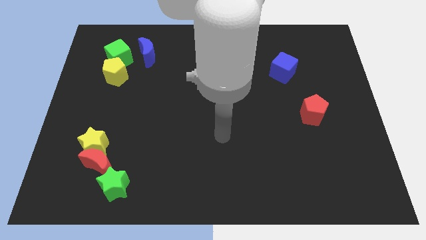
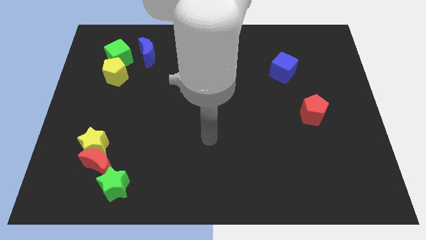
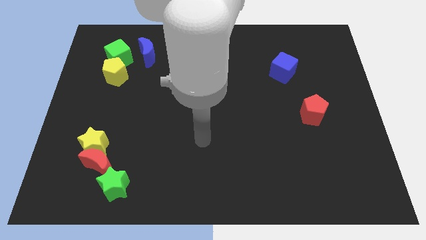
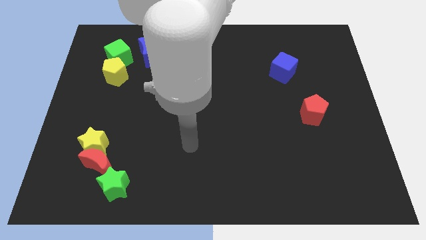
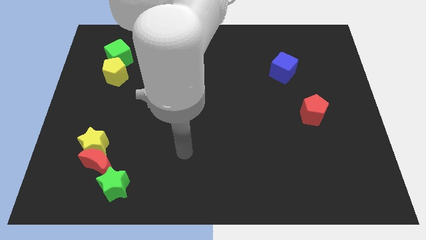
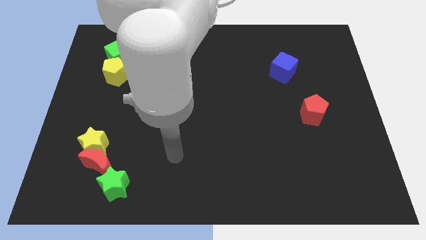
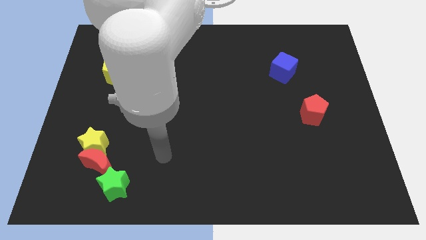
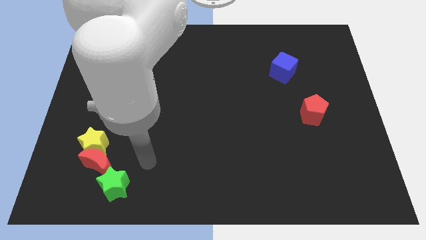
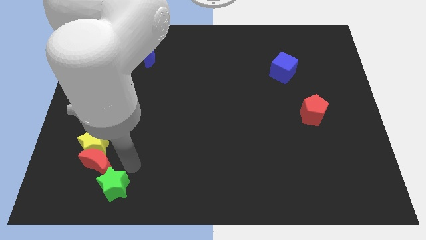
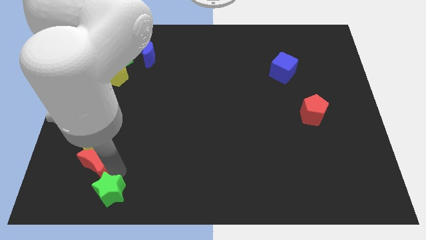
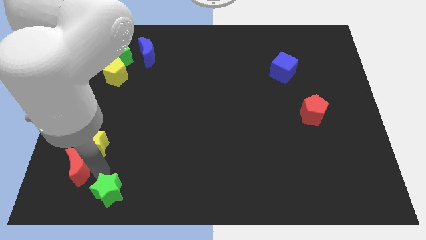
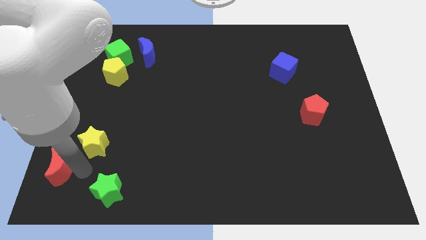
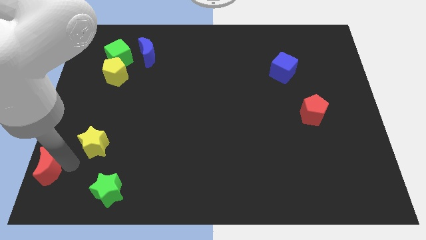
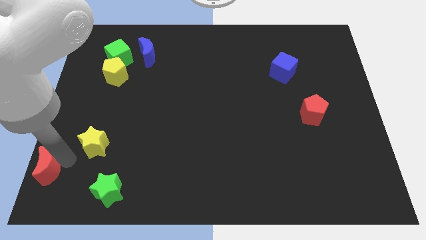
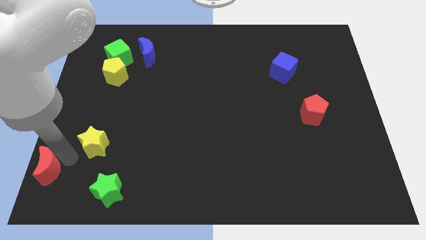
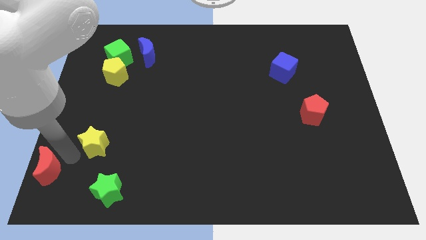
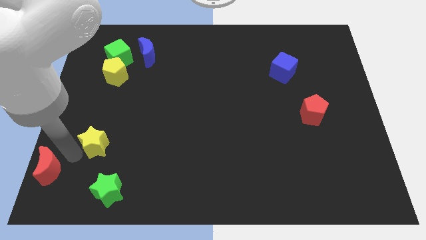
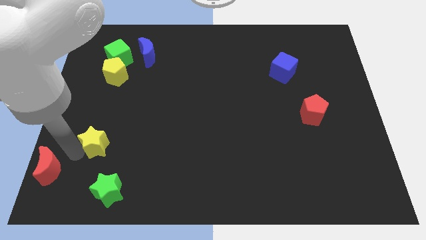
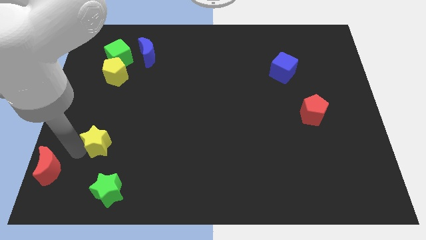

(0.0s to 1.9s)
separate the yellow star from the red moon

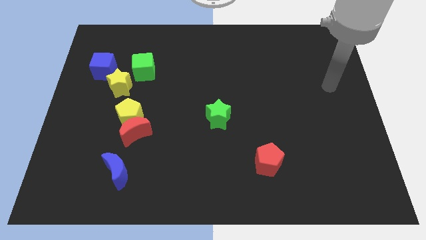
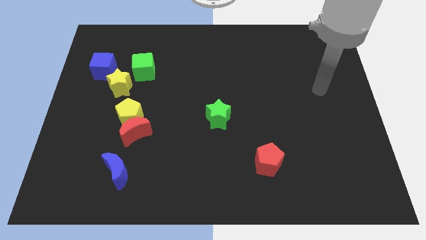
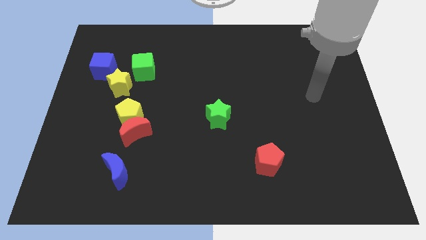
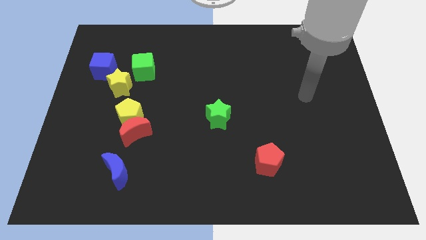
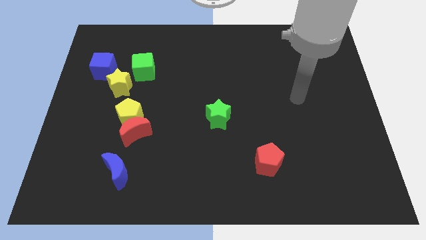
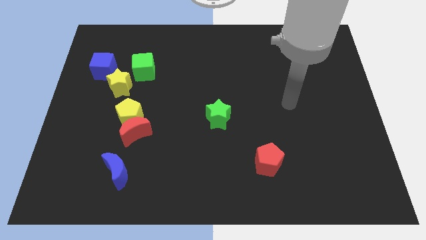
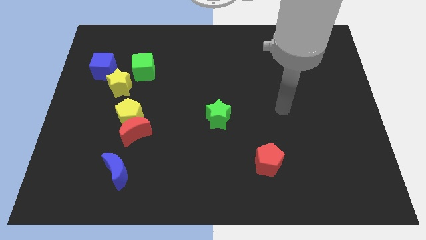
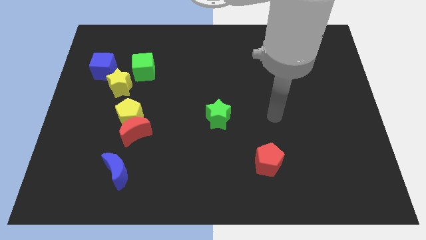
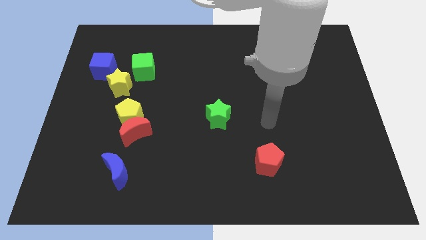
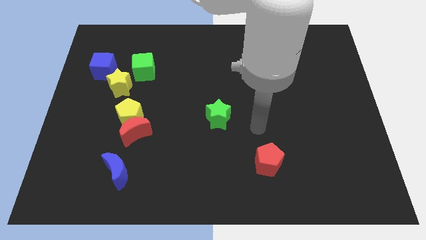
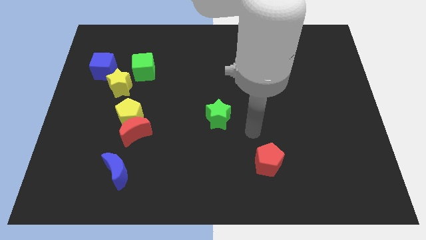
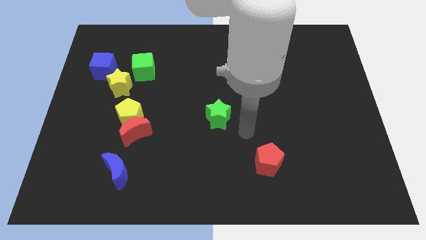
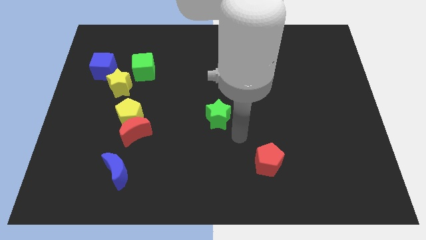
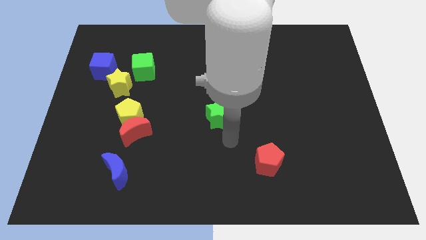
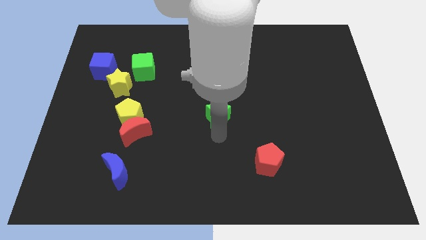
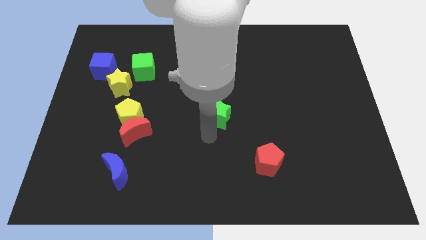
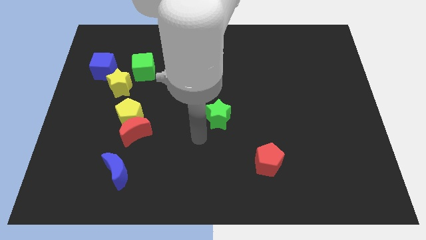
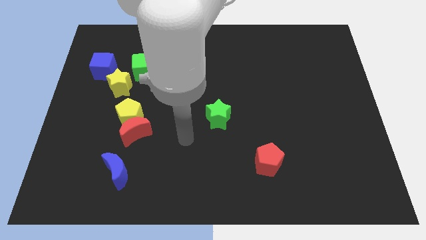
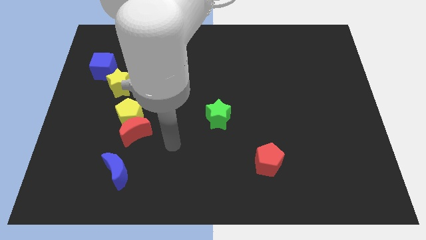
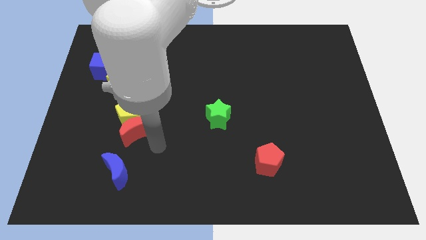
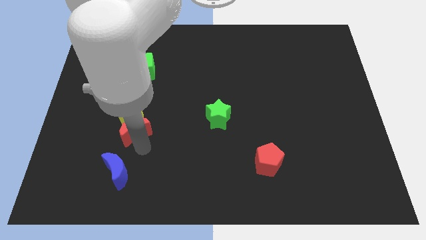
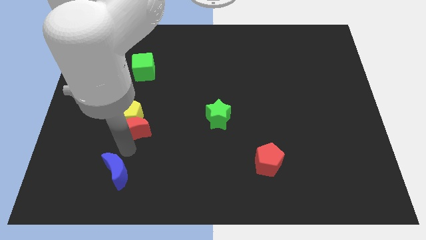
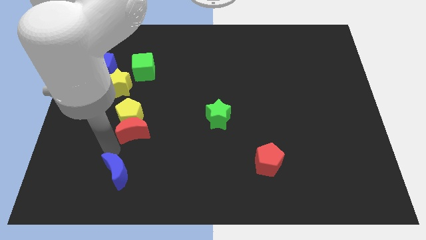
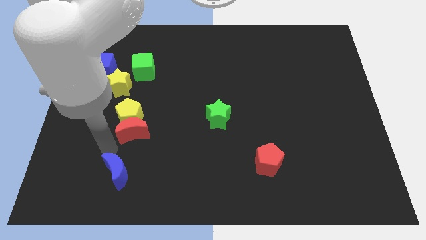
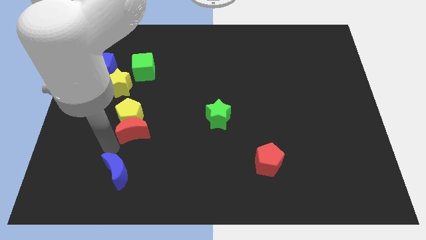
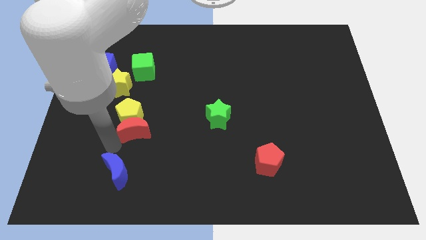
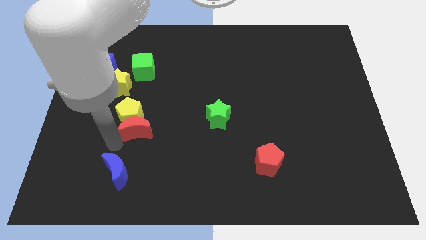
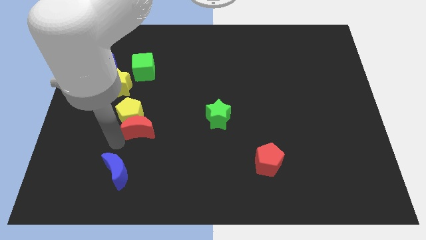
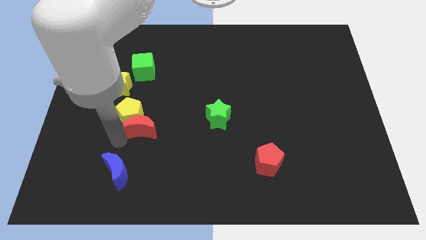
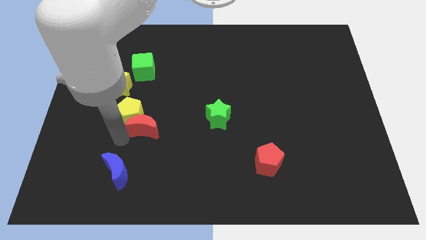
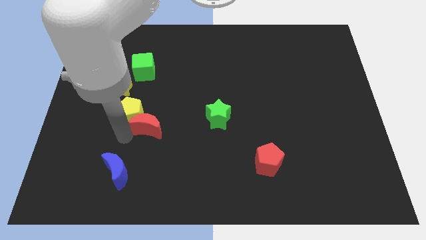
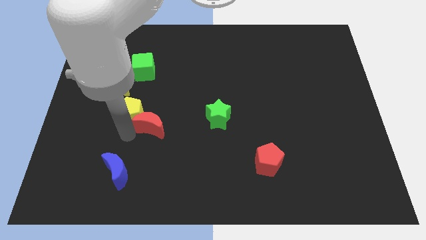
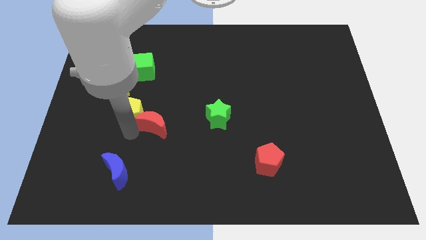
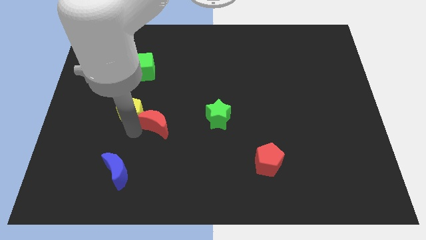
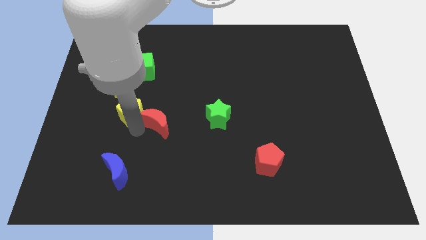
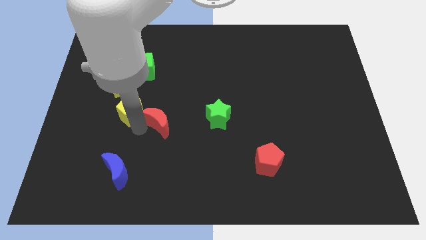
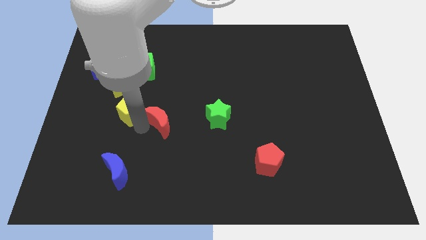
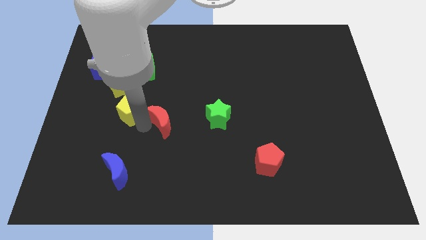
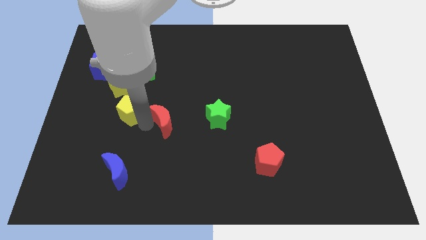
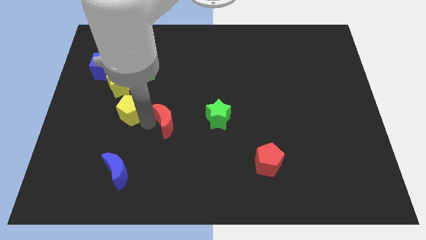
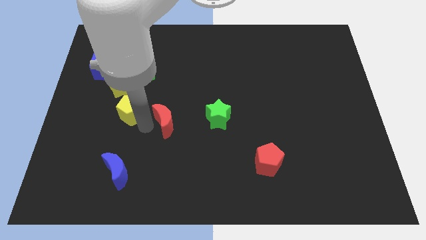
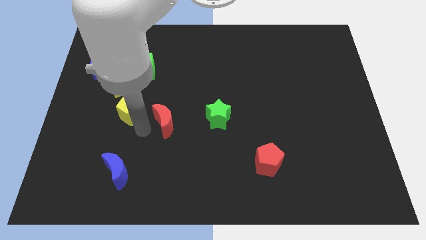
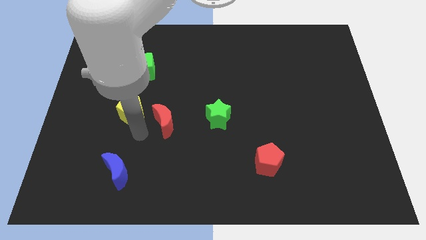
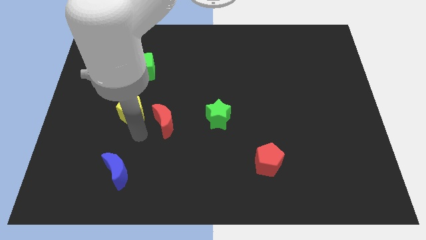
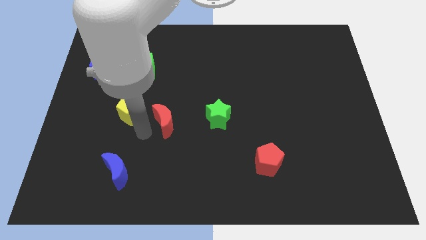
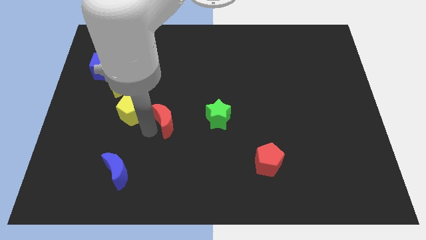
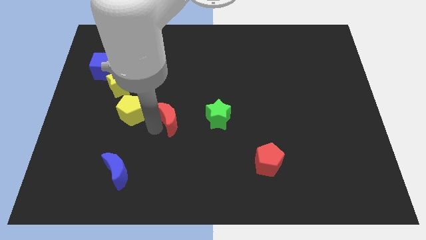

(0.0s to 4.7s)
pull the red moon apart from the yellow pentagon and blue moon

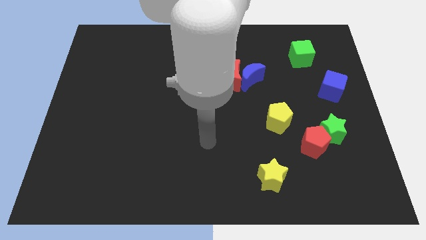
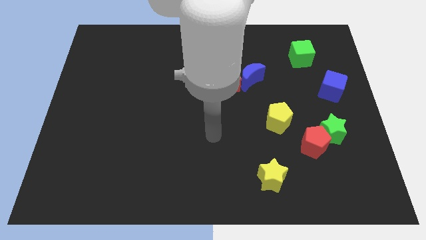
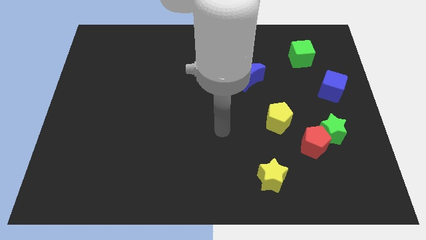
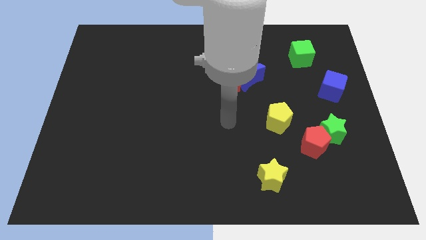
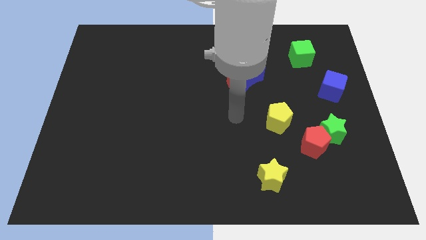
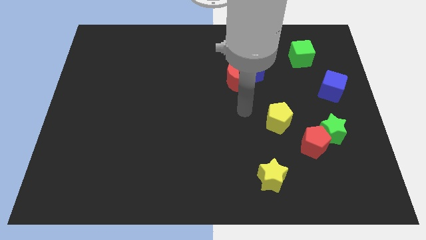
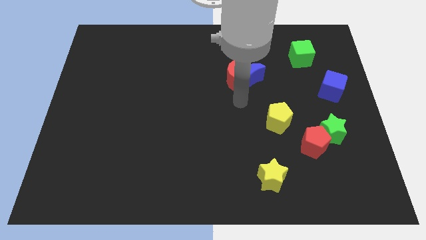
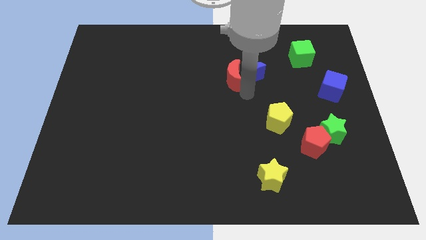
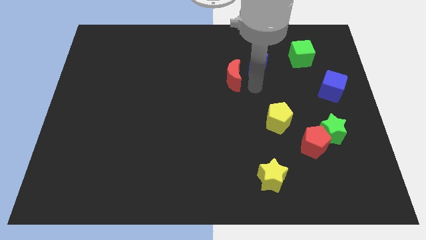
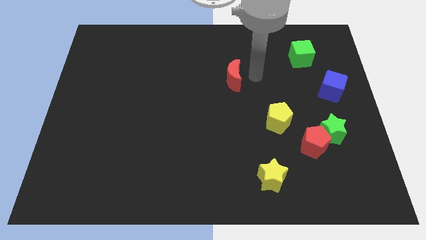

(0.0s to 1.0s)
separate the red moon from the blue moon

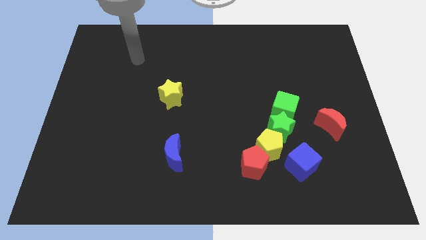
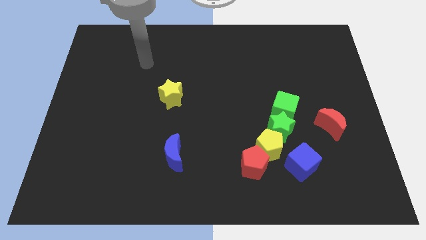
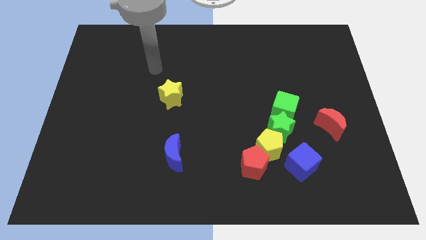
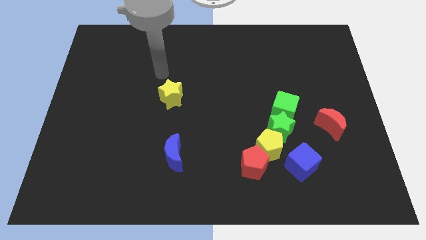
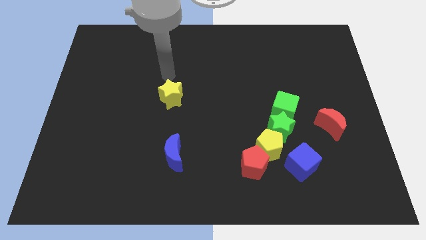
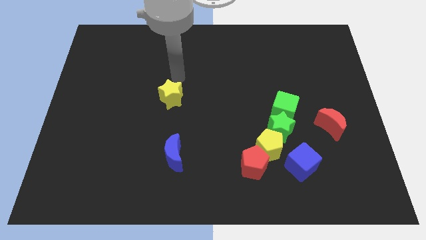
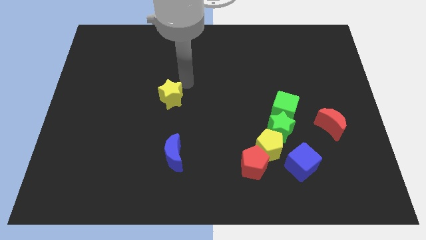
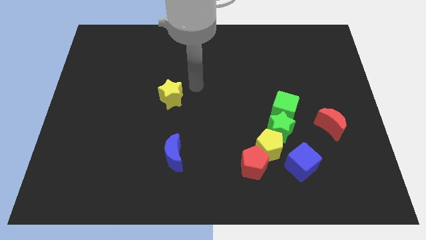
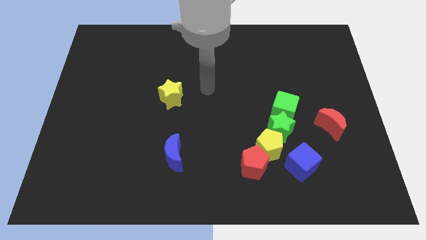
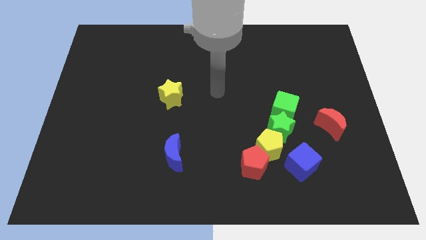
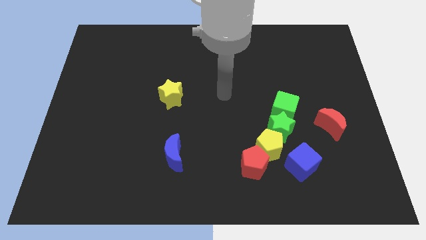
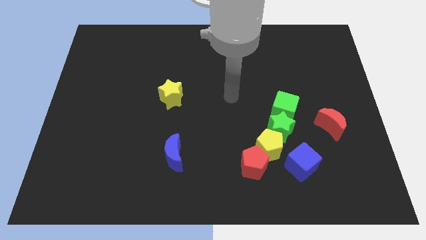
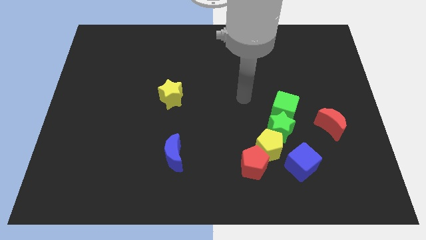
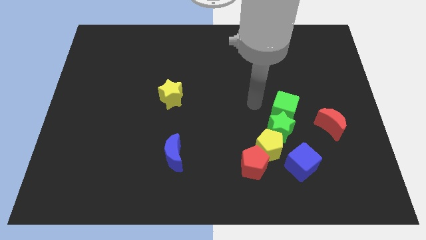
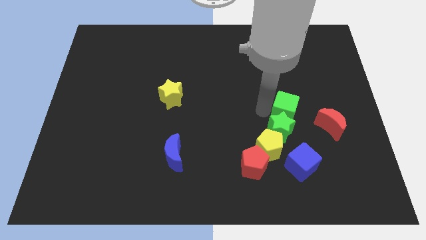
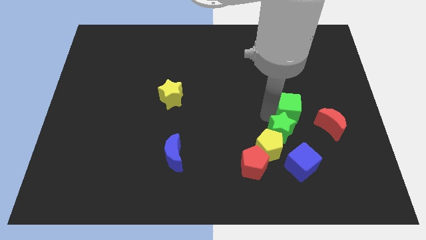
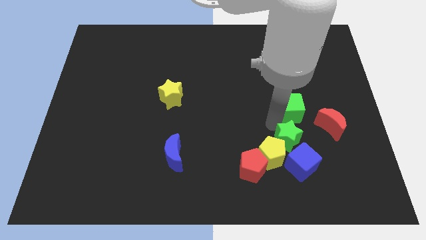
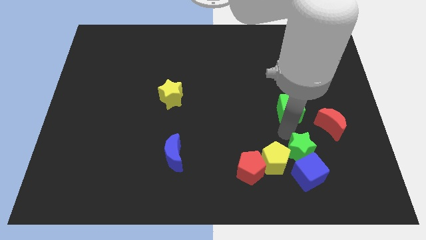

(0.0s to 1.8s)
pull the green cube apart from the green star
